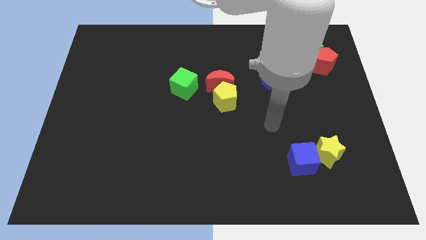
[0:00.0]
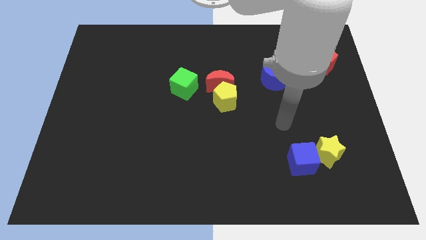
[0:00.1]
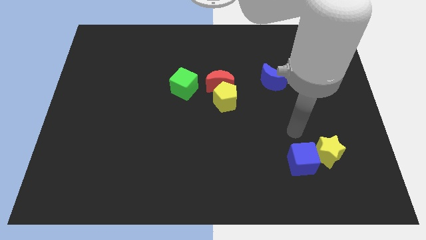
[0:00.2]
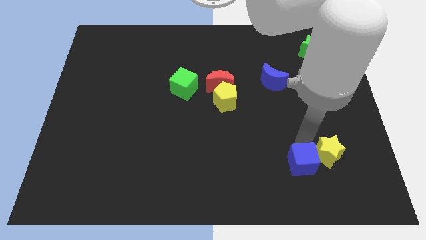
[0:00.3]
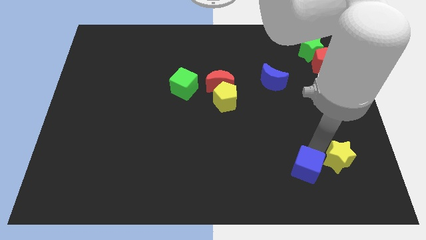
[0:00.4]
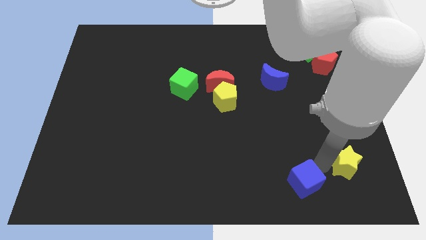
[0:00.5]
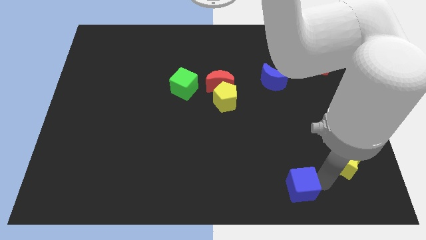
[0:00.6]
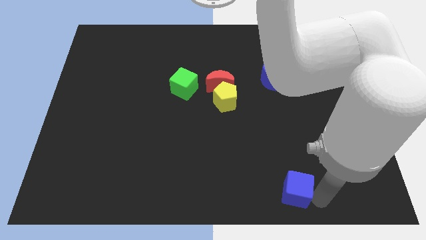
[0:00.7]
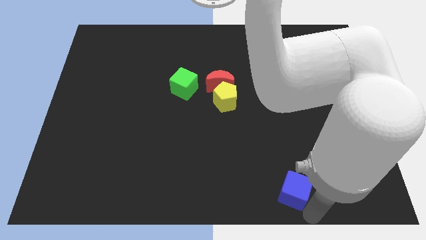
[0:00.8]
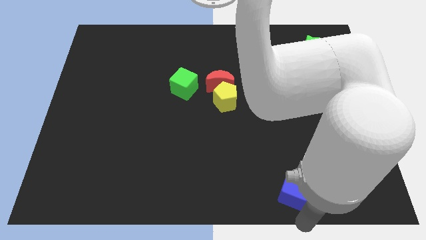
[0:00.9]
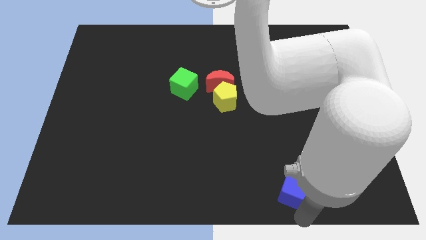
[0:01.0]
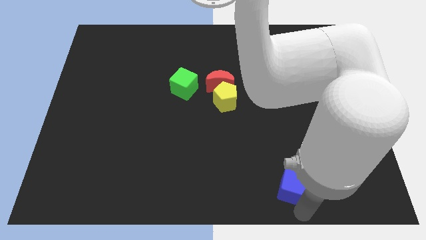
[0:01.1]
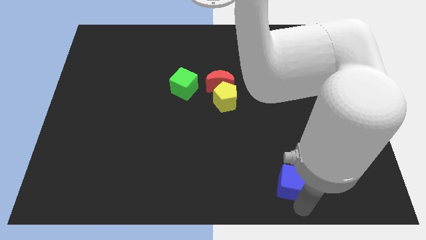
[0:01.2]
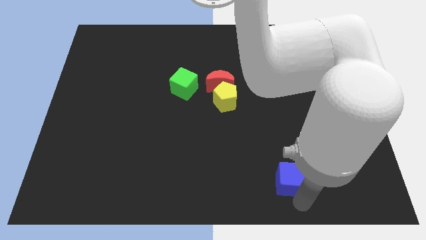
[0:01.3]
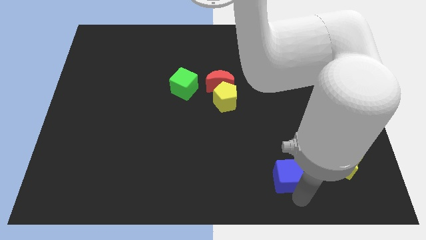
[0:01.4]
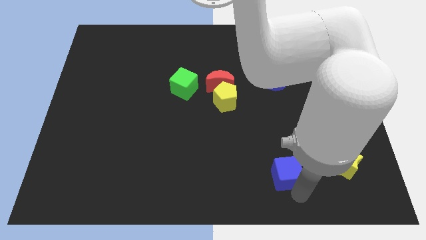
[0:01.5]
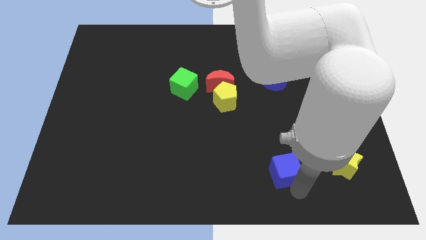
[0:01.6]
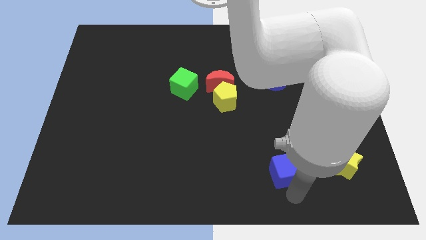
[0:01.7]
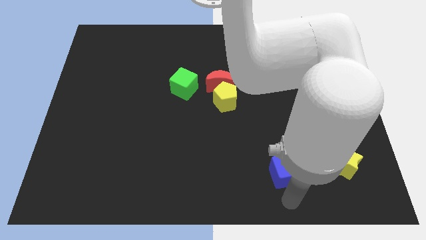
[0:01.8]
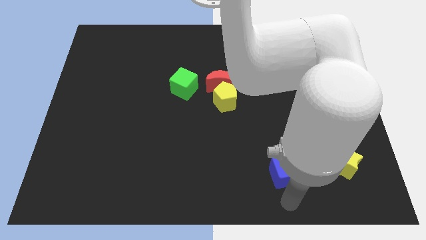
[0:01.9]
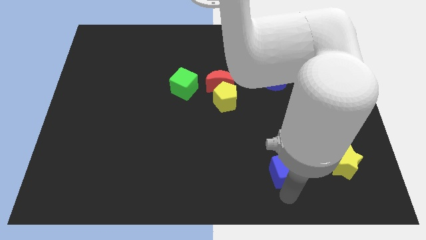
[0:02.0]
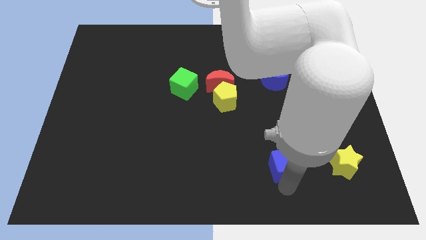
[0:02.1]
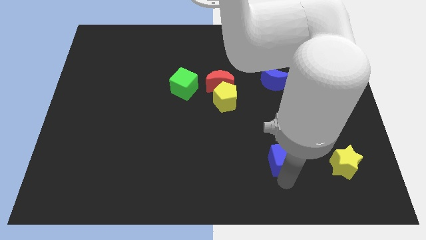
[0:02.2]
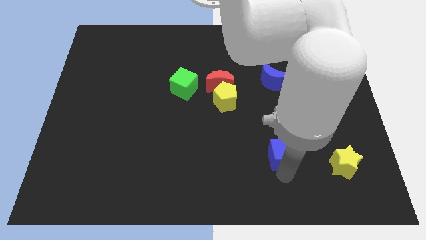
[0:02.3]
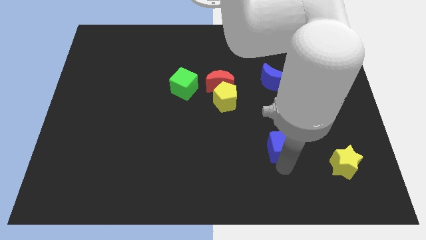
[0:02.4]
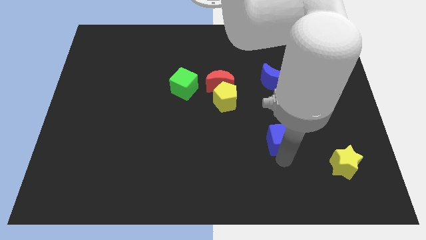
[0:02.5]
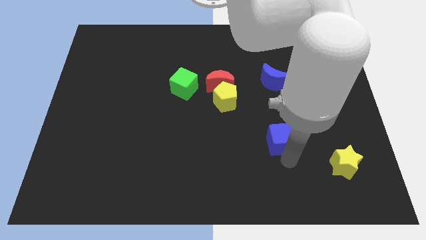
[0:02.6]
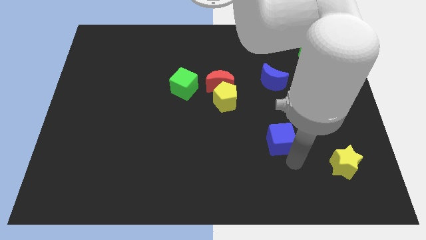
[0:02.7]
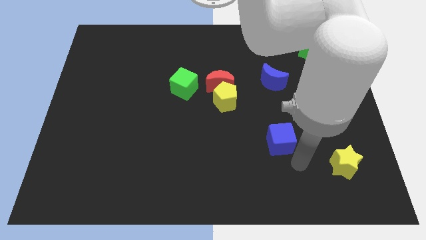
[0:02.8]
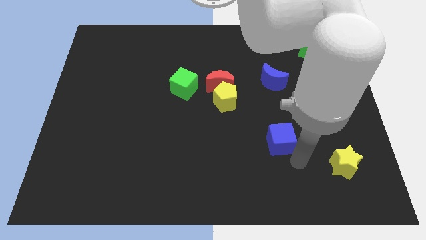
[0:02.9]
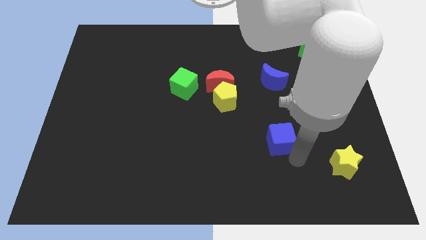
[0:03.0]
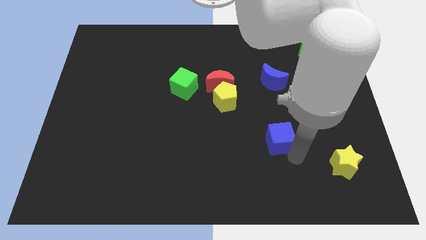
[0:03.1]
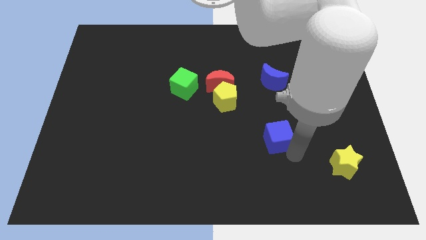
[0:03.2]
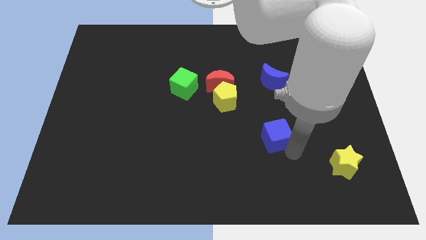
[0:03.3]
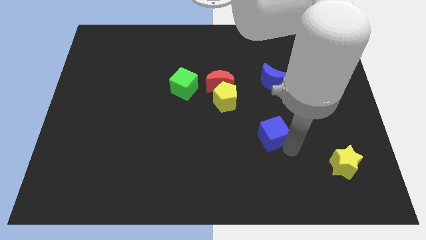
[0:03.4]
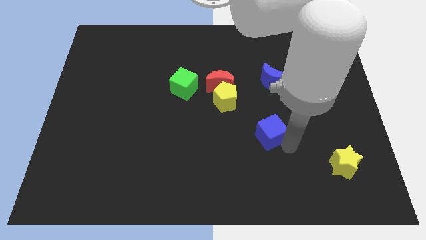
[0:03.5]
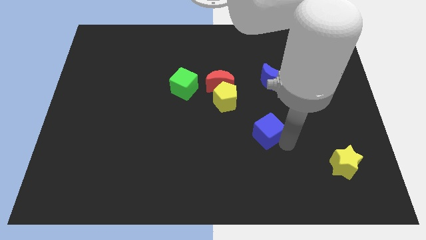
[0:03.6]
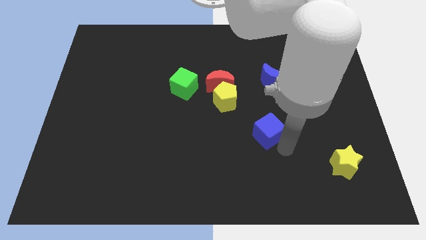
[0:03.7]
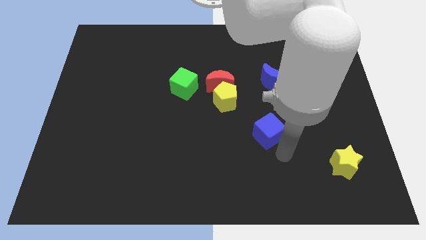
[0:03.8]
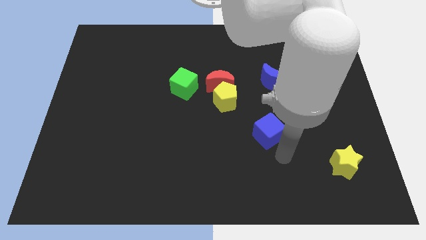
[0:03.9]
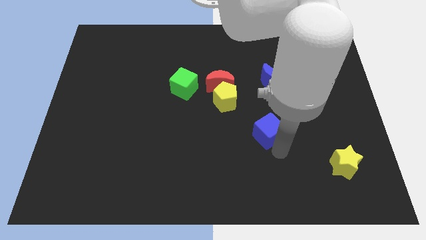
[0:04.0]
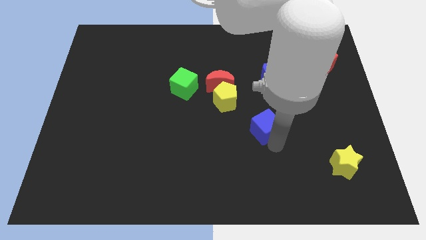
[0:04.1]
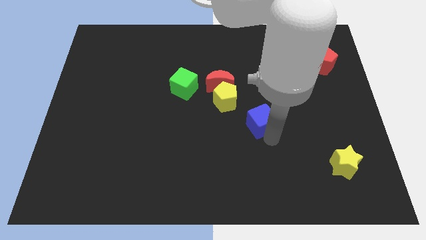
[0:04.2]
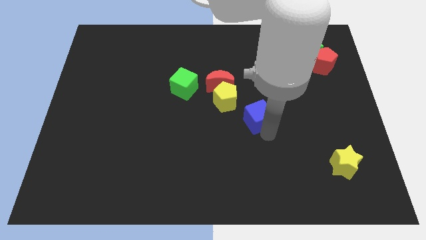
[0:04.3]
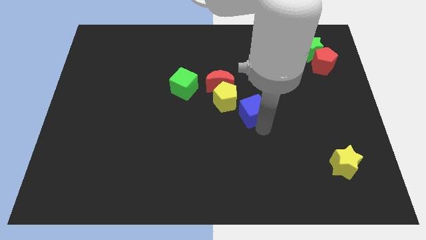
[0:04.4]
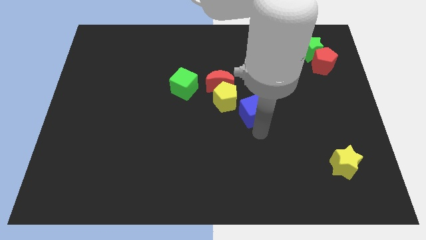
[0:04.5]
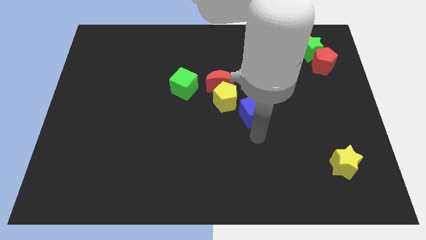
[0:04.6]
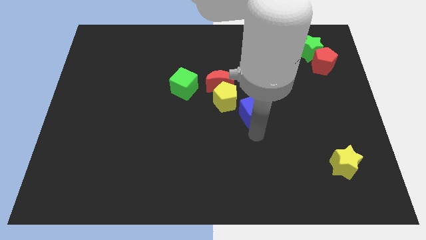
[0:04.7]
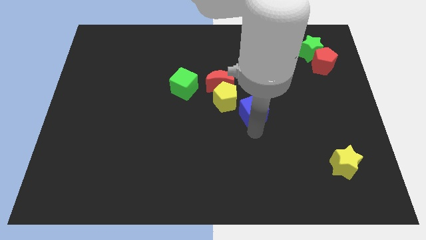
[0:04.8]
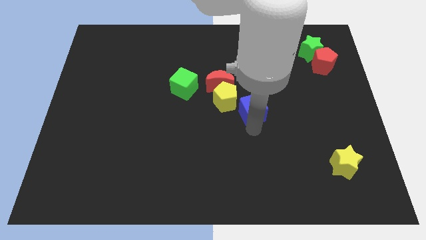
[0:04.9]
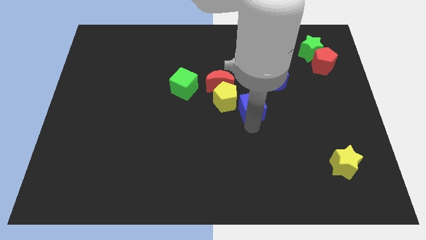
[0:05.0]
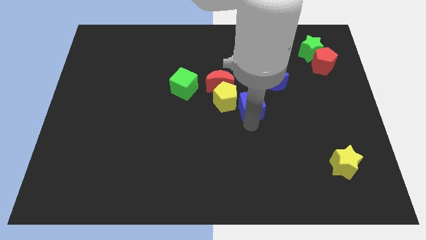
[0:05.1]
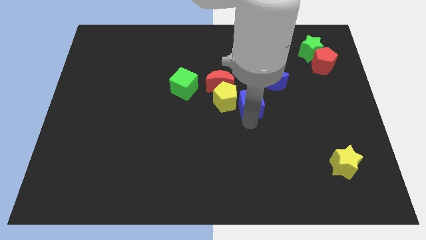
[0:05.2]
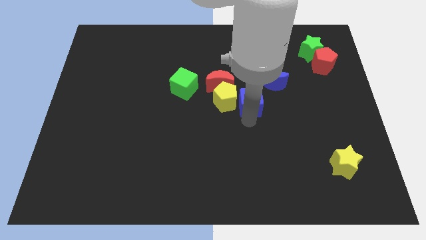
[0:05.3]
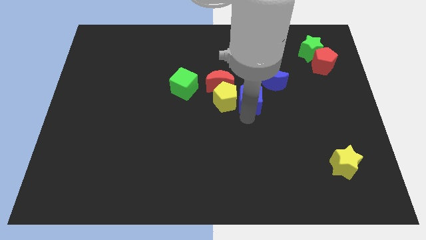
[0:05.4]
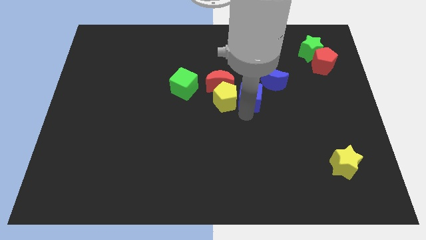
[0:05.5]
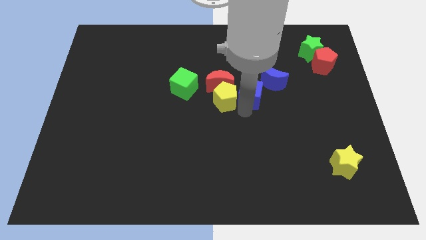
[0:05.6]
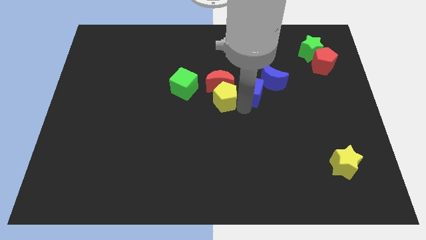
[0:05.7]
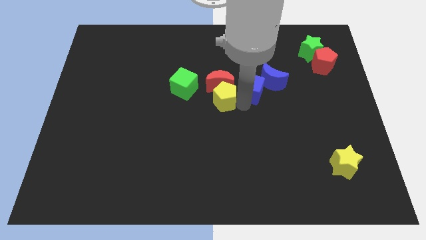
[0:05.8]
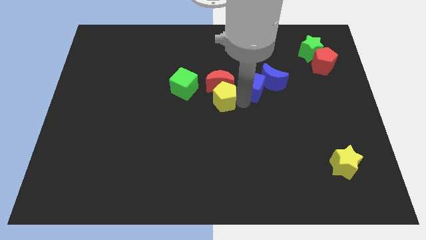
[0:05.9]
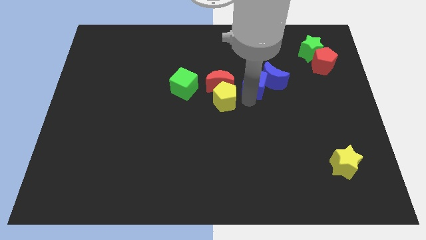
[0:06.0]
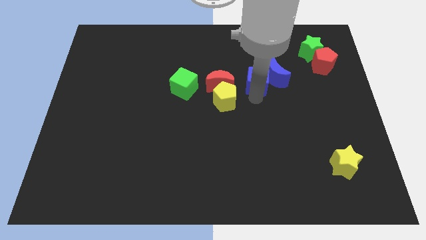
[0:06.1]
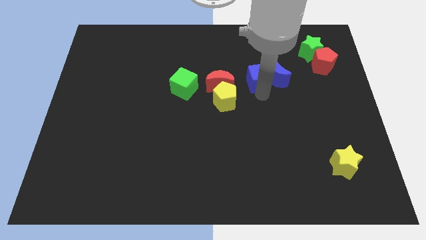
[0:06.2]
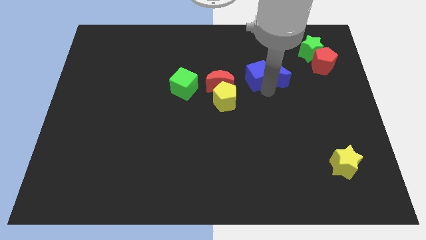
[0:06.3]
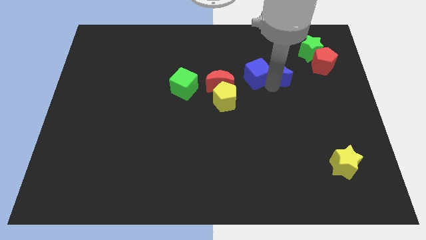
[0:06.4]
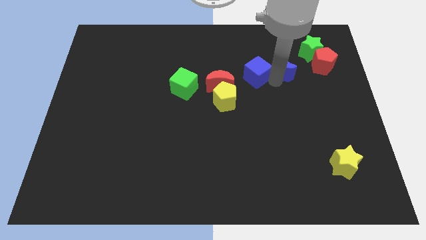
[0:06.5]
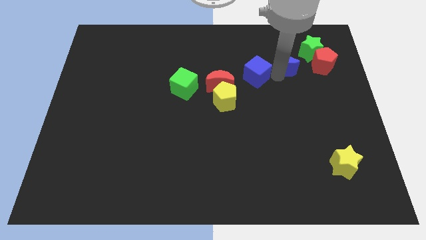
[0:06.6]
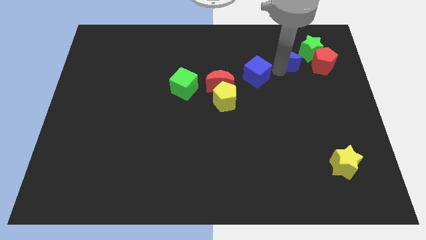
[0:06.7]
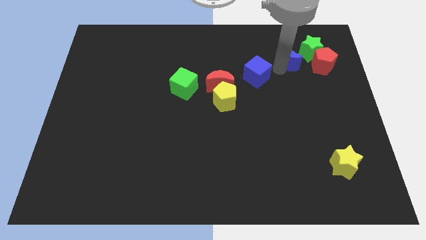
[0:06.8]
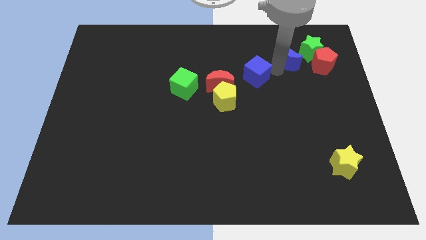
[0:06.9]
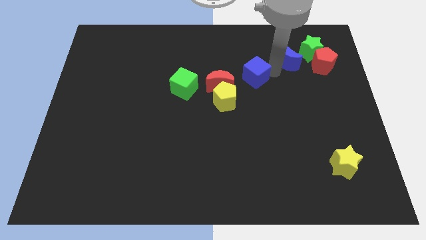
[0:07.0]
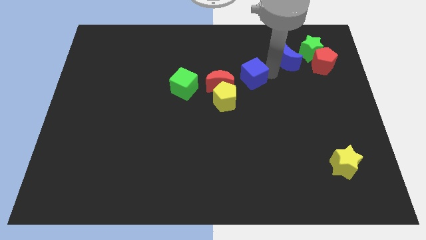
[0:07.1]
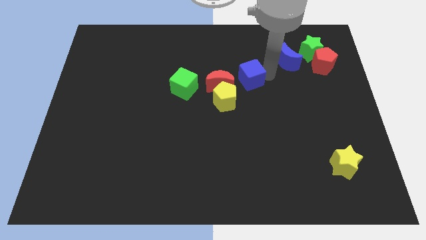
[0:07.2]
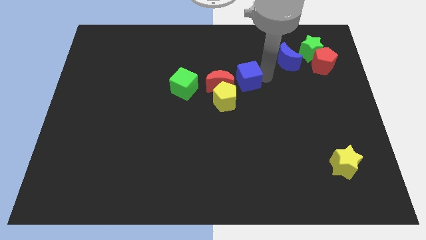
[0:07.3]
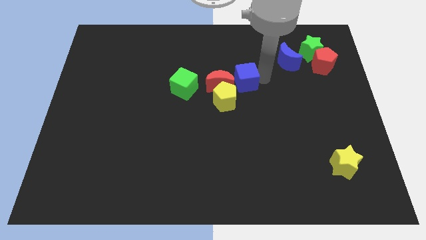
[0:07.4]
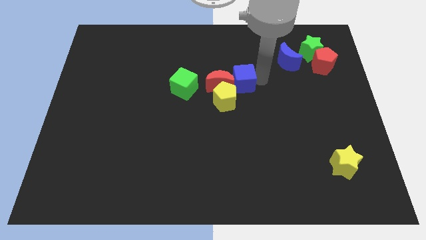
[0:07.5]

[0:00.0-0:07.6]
push the blue cube to the red moon
